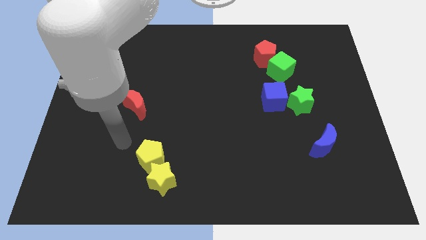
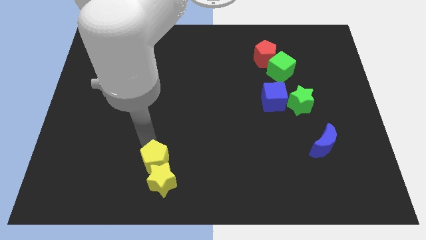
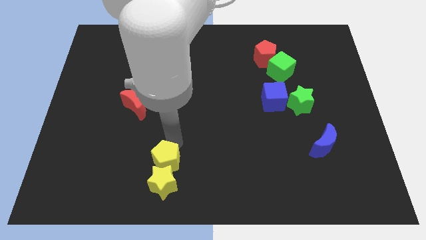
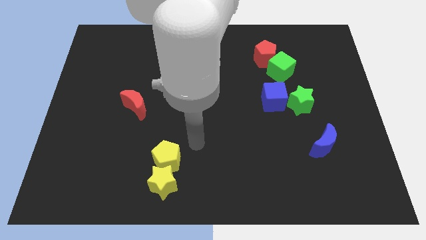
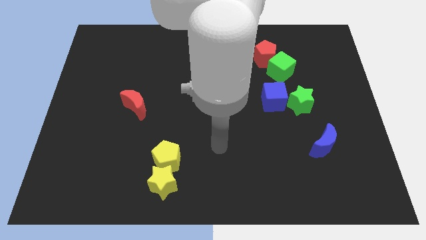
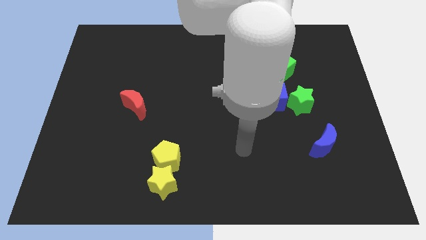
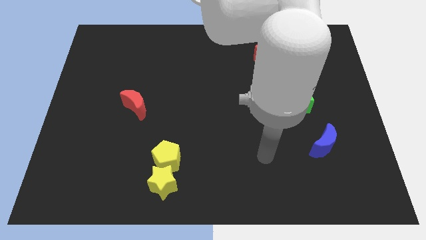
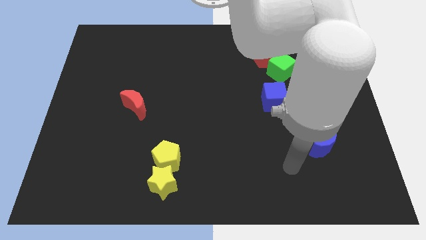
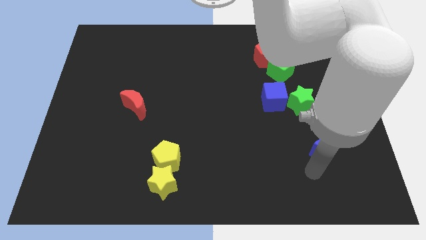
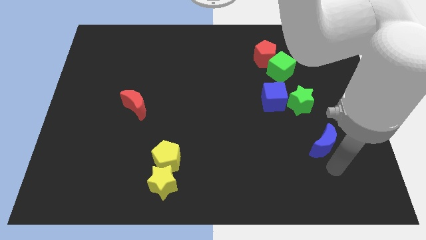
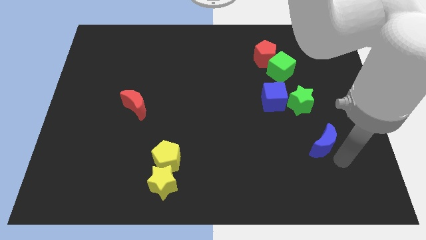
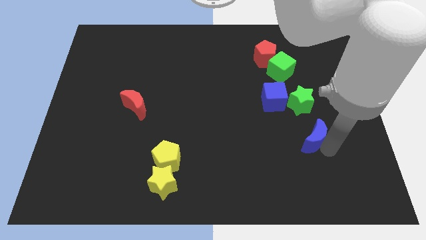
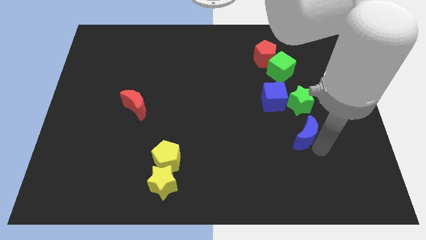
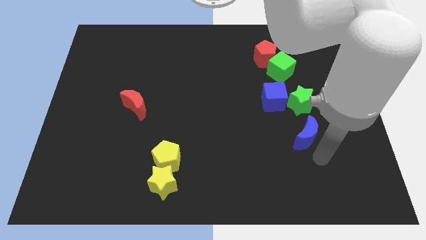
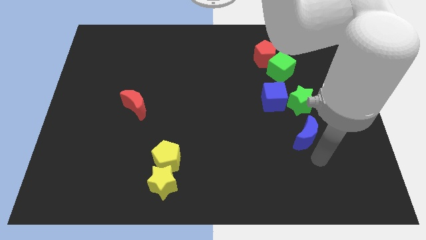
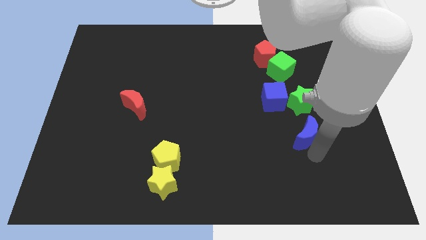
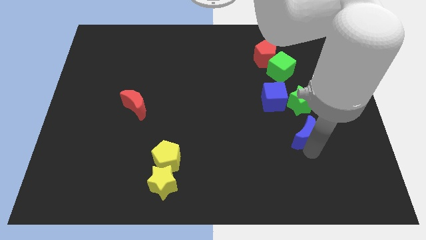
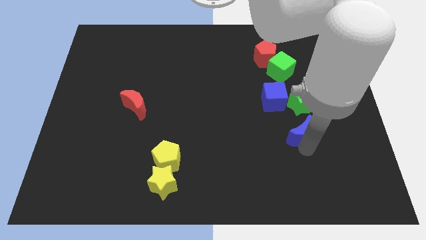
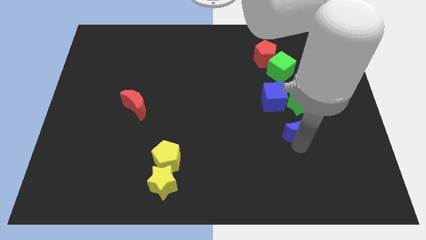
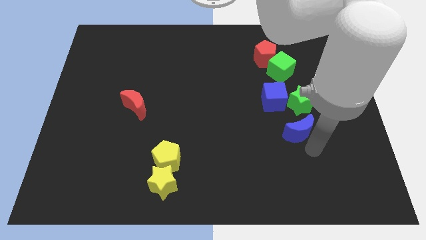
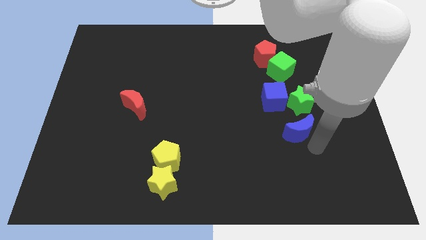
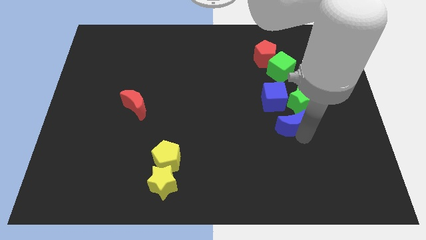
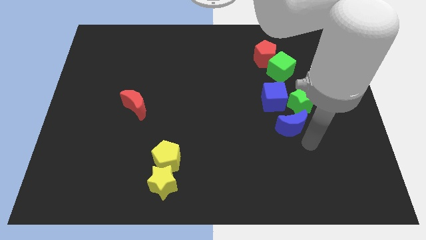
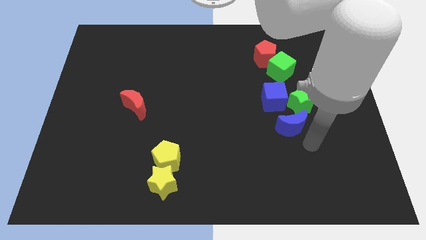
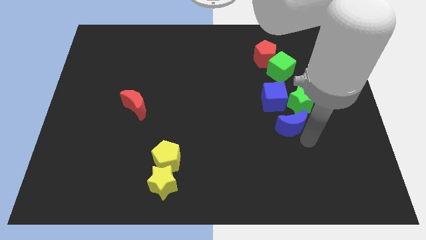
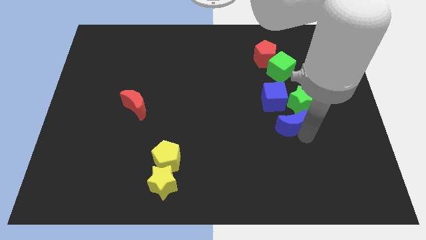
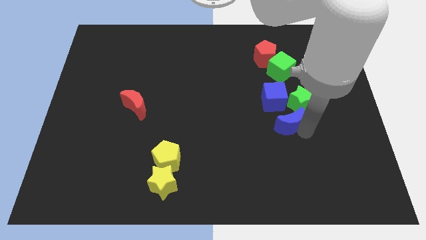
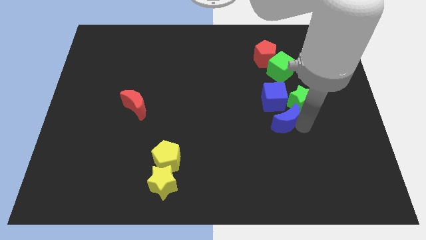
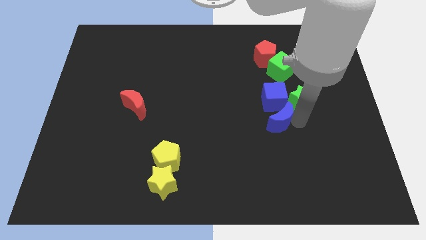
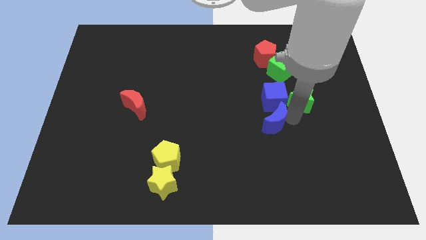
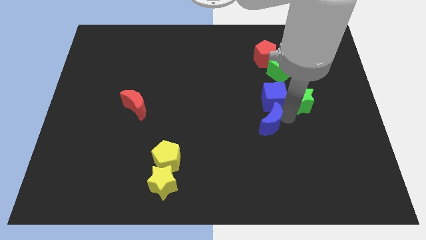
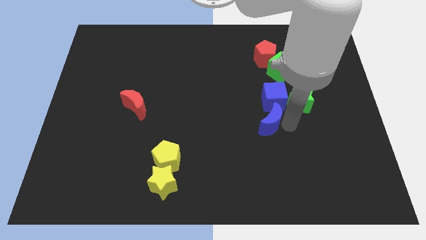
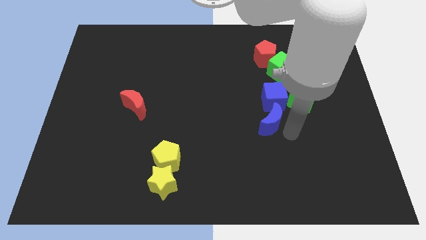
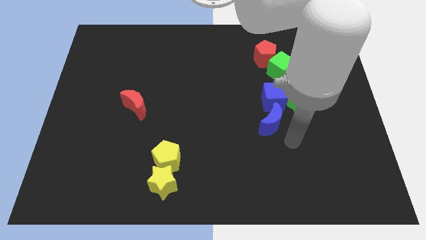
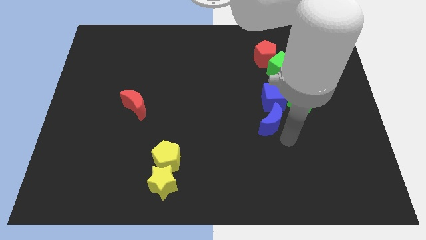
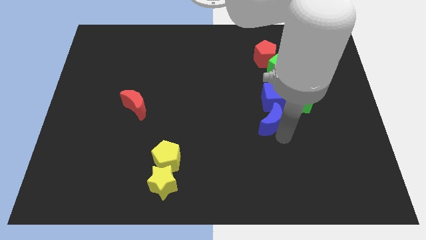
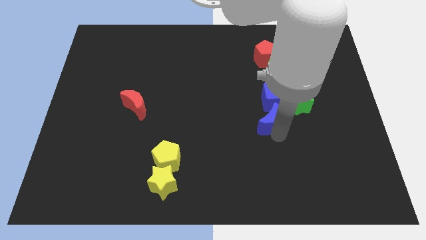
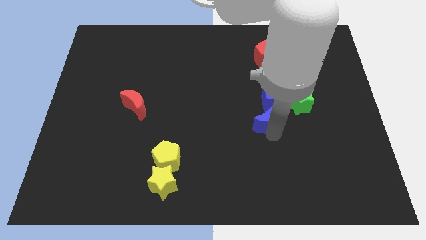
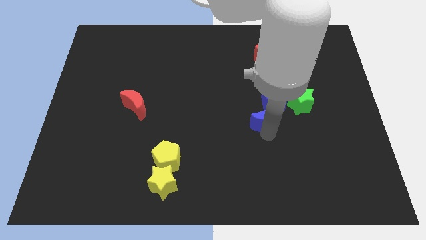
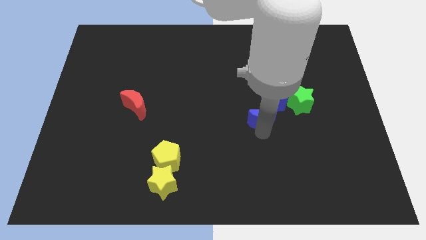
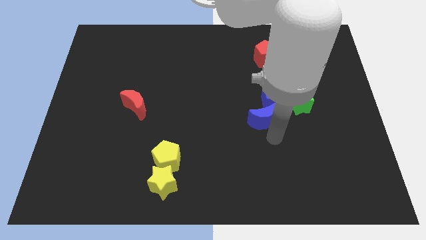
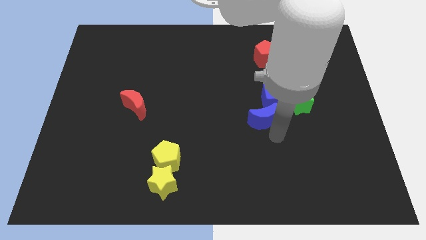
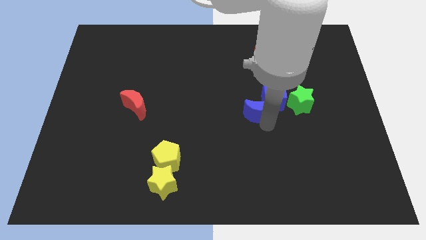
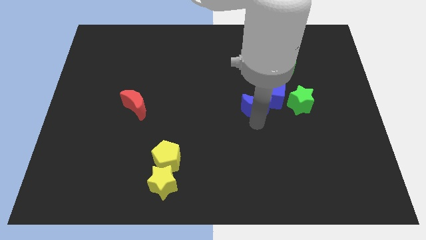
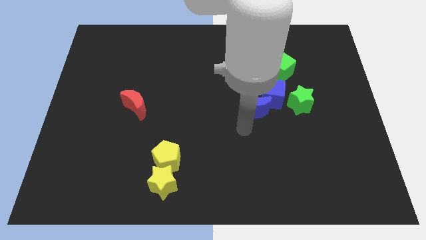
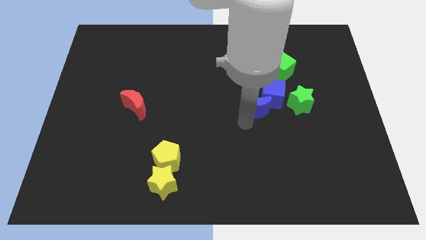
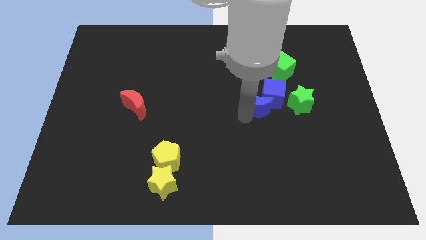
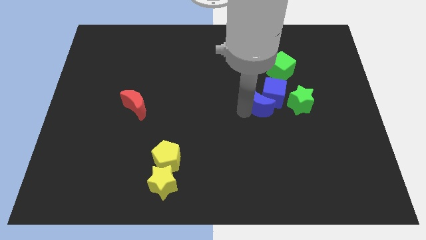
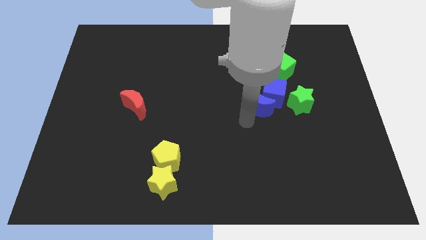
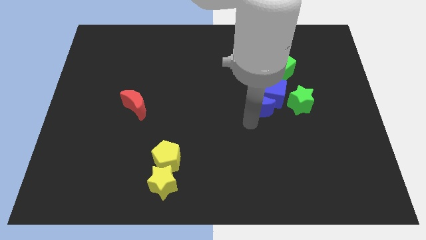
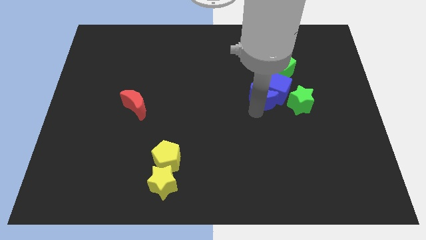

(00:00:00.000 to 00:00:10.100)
push the blue moon to the bottom side of the red pentagon

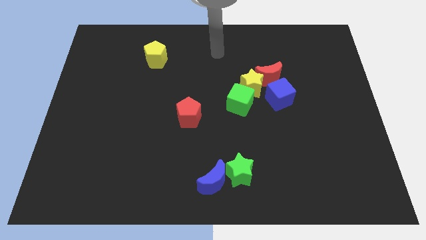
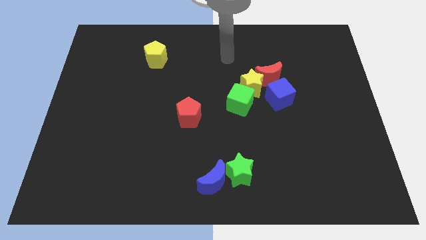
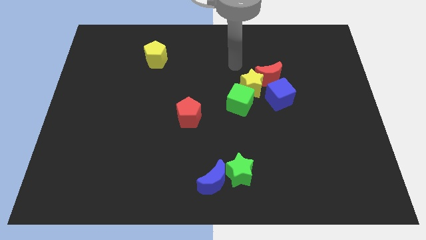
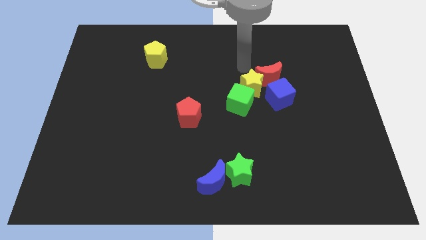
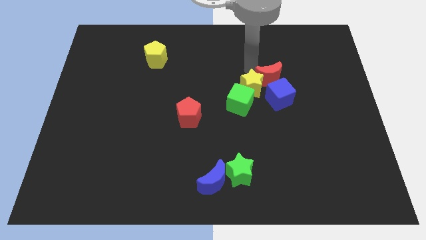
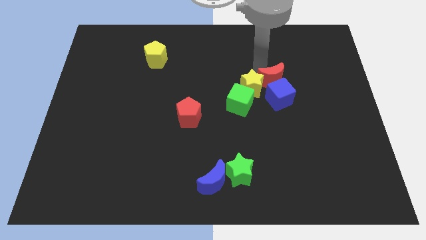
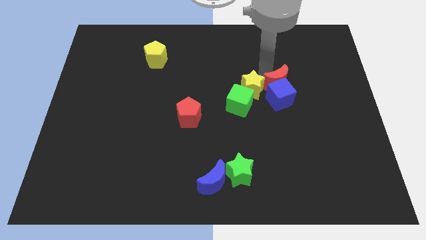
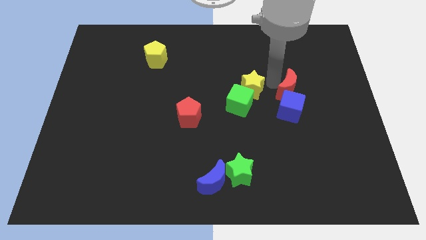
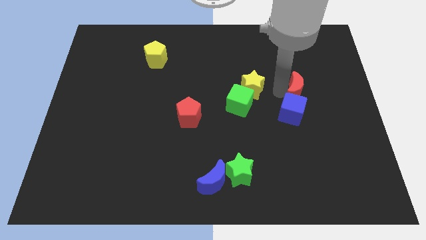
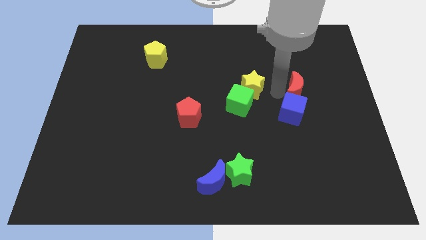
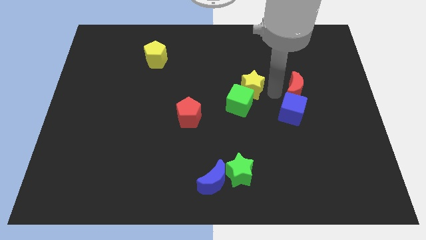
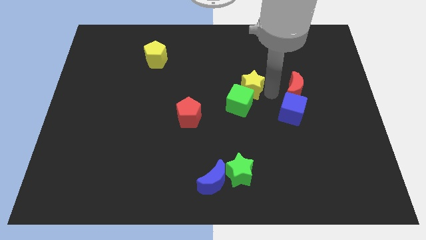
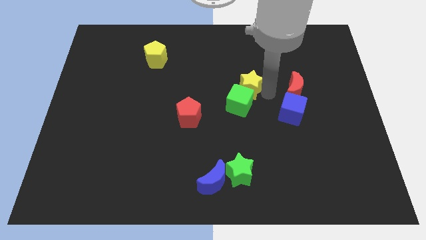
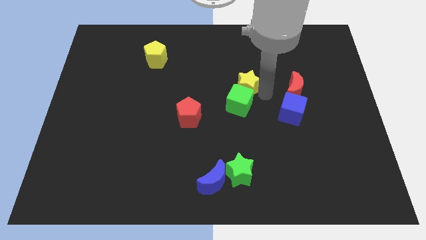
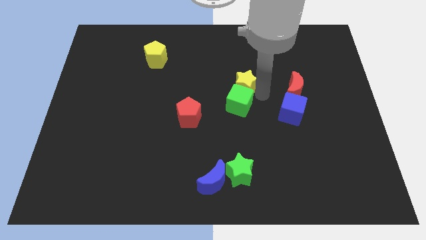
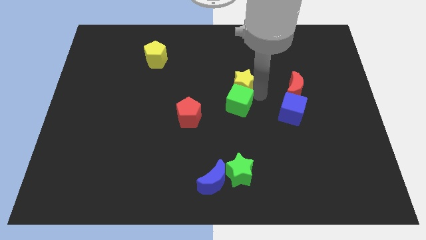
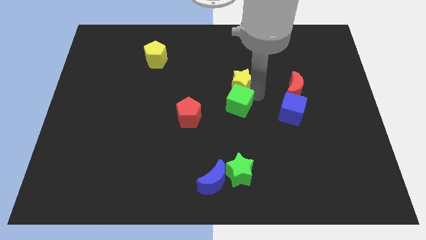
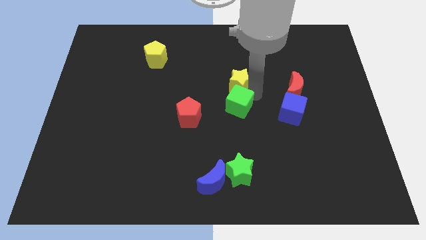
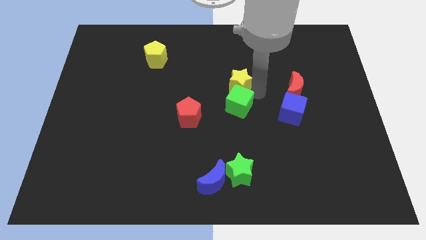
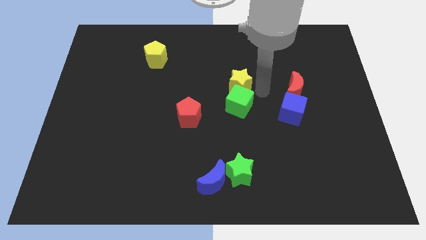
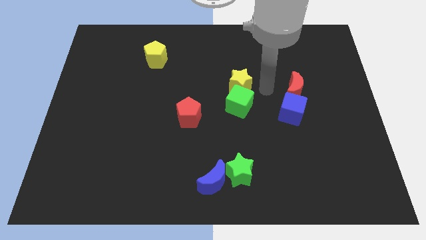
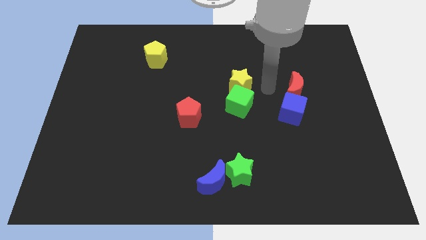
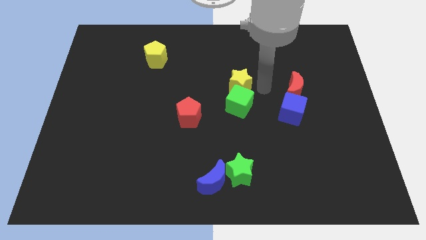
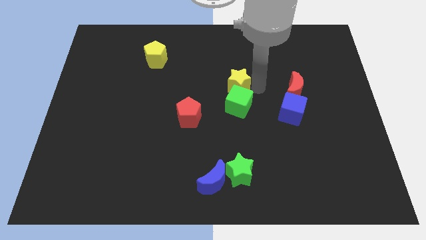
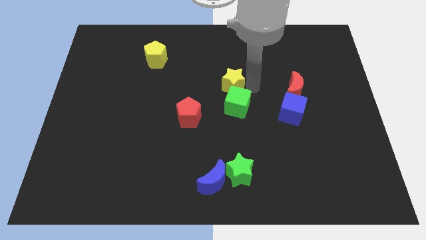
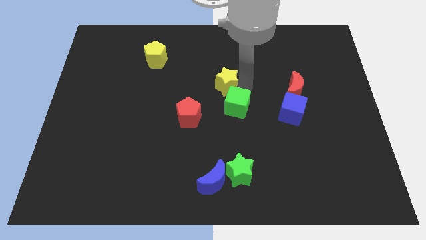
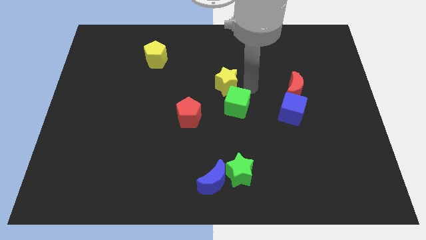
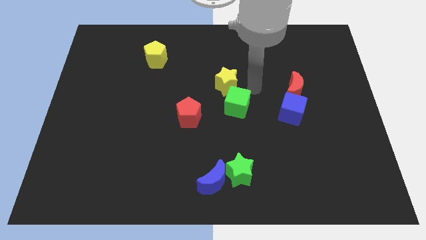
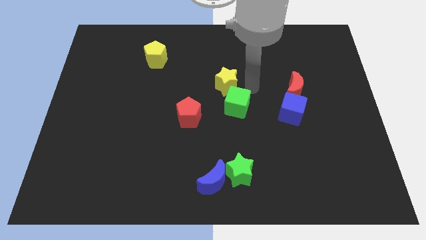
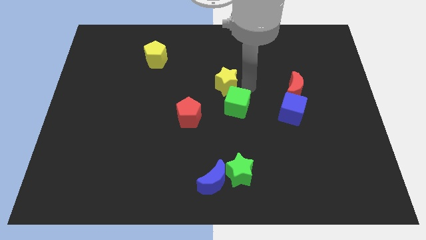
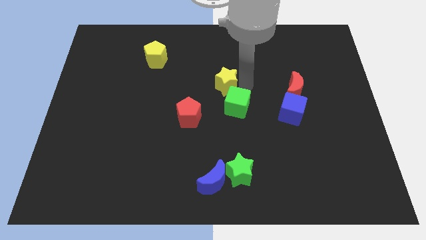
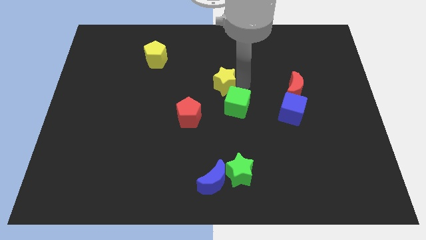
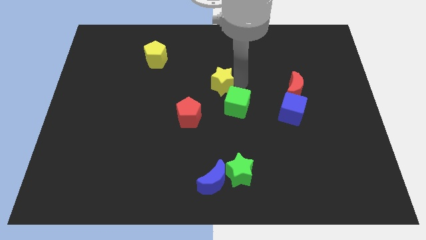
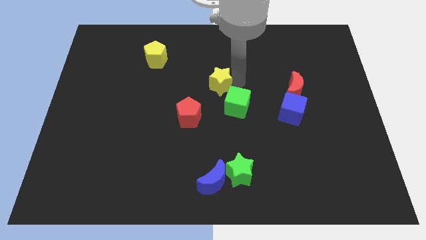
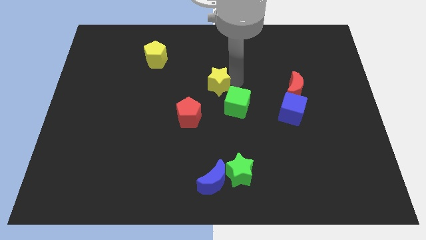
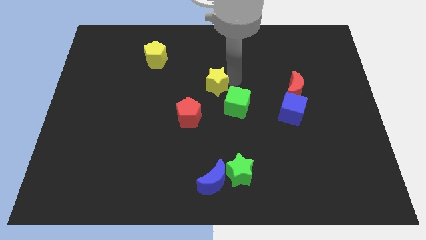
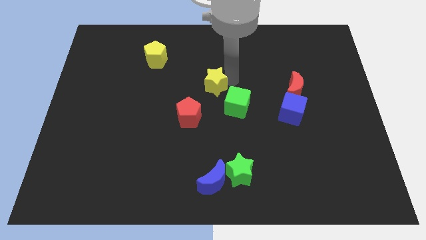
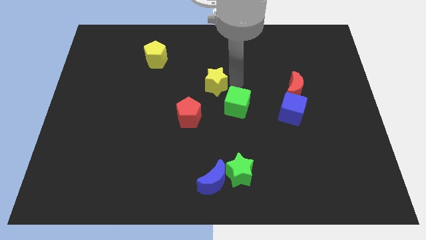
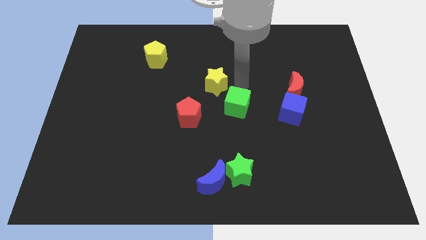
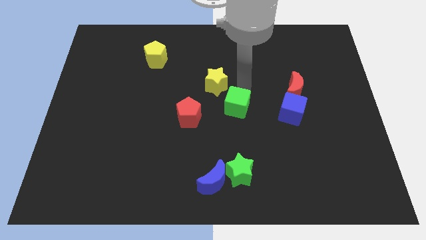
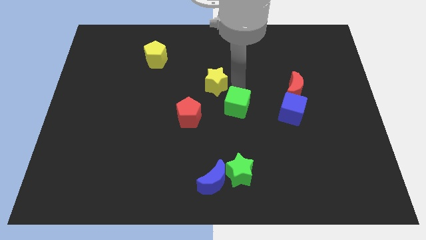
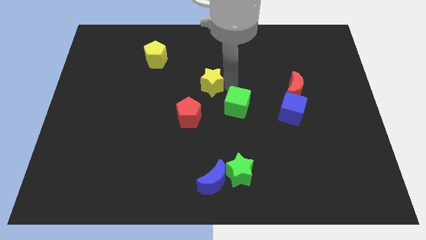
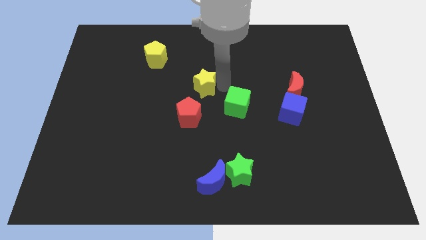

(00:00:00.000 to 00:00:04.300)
slide the yellow star to the top of the red pentagon
